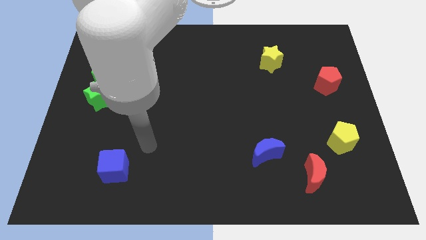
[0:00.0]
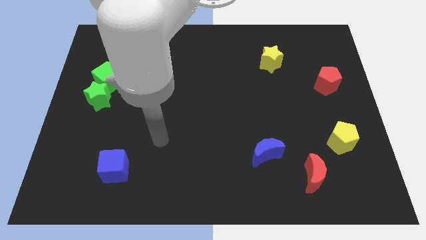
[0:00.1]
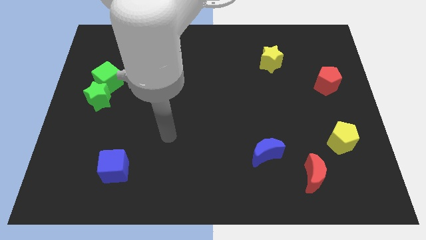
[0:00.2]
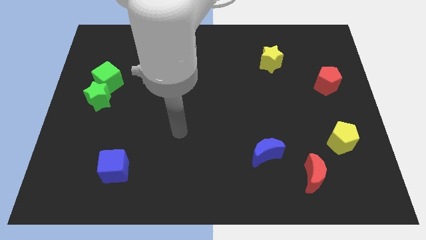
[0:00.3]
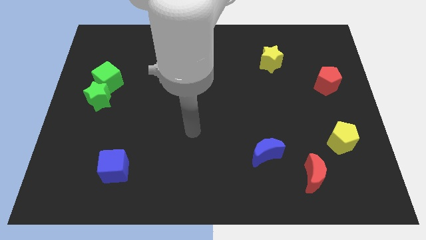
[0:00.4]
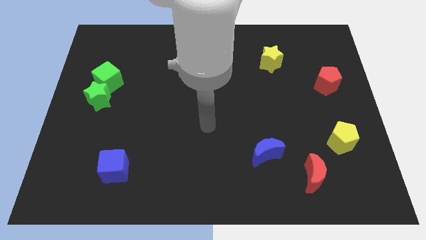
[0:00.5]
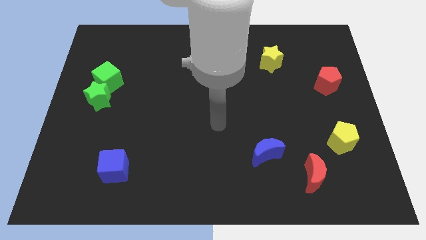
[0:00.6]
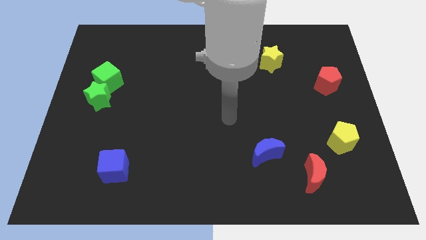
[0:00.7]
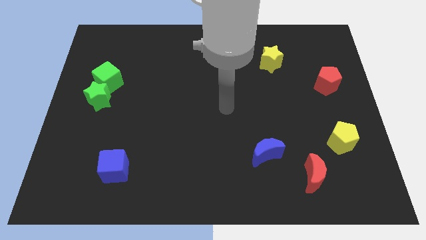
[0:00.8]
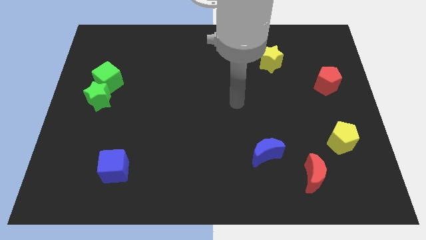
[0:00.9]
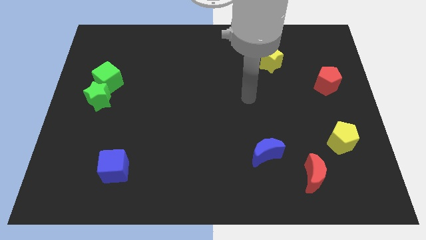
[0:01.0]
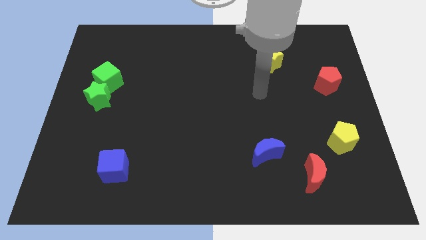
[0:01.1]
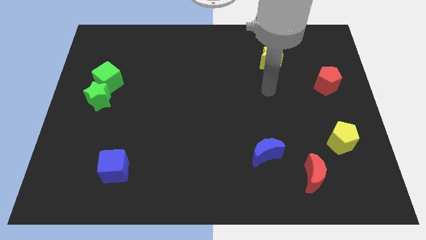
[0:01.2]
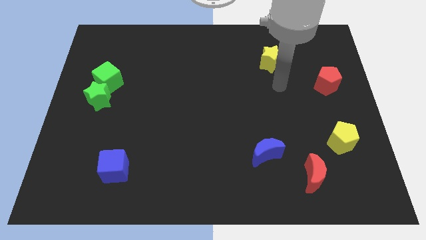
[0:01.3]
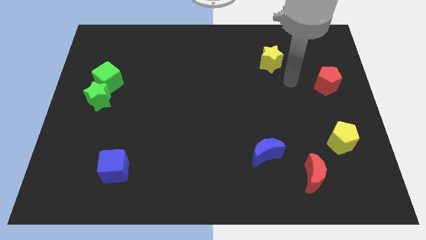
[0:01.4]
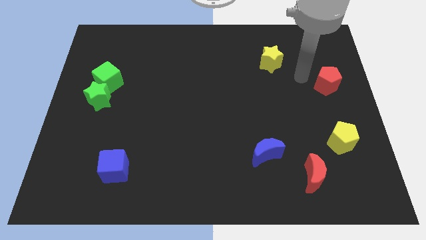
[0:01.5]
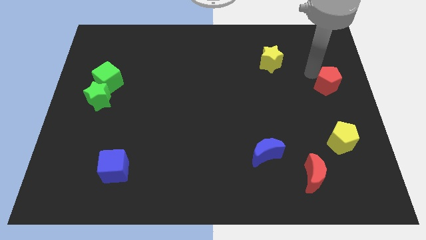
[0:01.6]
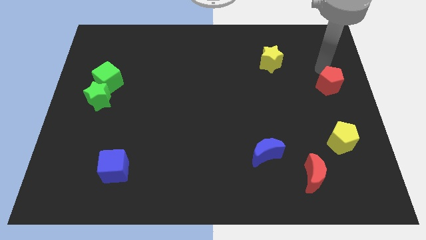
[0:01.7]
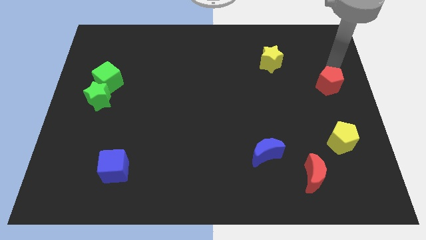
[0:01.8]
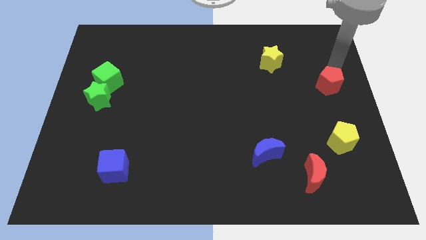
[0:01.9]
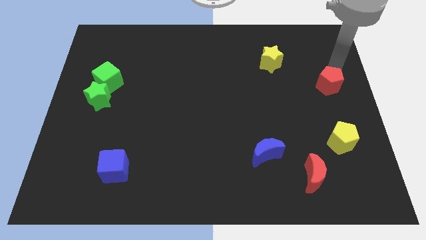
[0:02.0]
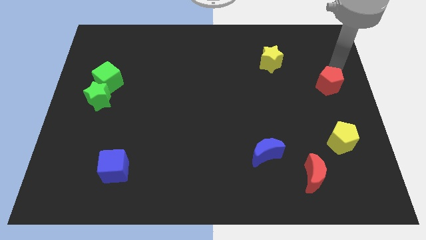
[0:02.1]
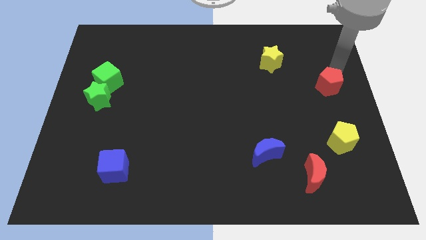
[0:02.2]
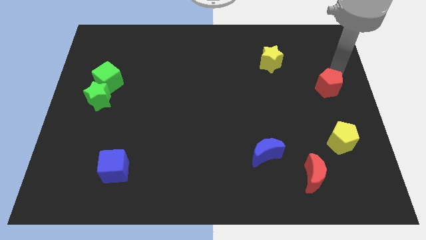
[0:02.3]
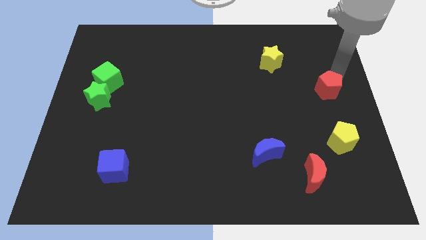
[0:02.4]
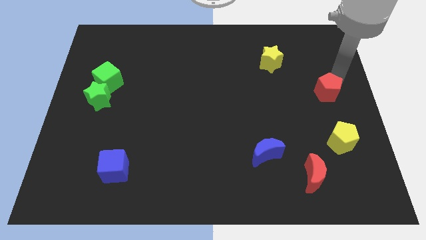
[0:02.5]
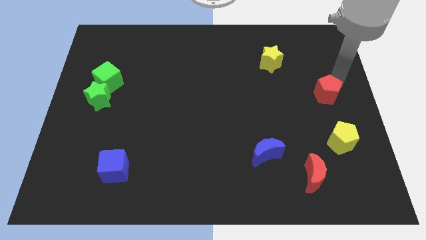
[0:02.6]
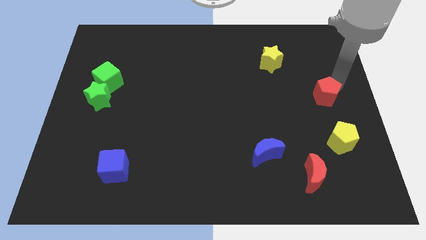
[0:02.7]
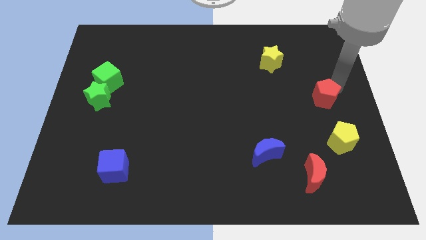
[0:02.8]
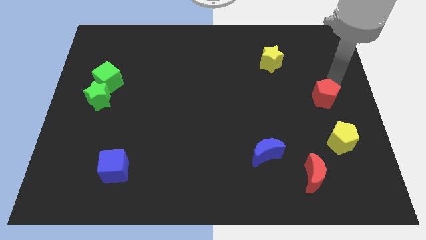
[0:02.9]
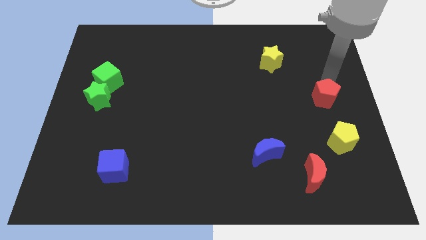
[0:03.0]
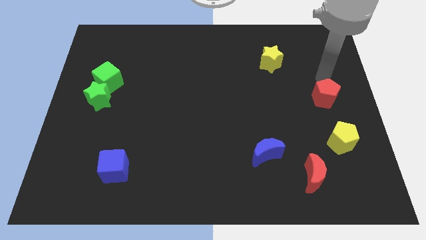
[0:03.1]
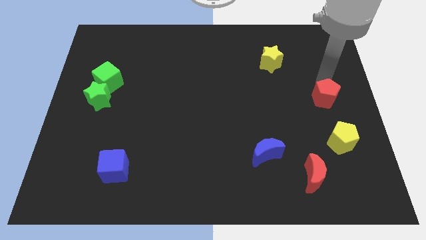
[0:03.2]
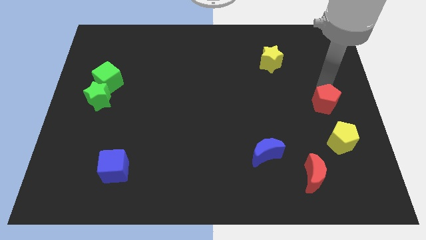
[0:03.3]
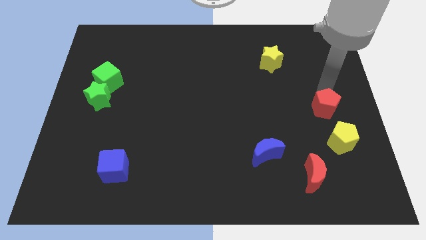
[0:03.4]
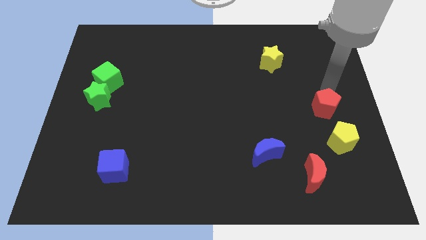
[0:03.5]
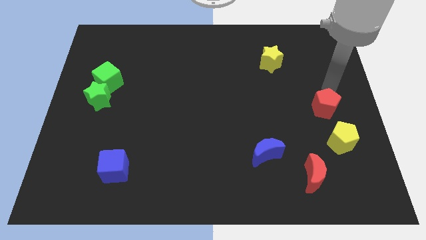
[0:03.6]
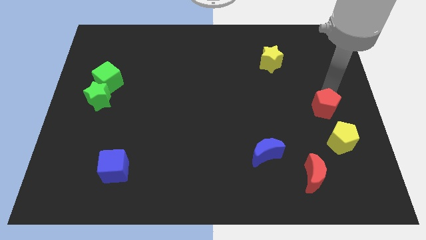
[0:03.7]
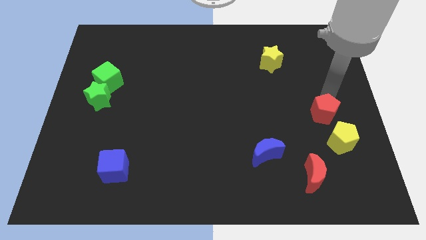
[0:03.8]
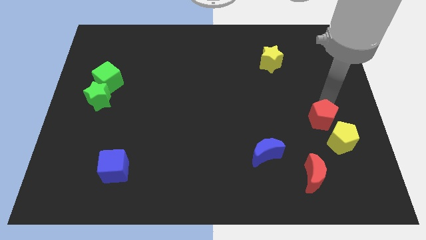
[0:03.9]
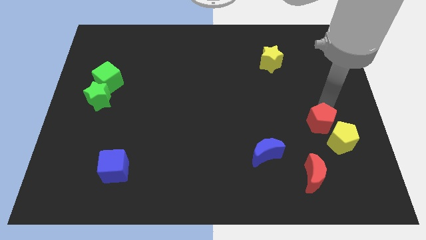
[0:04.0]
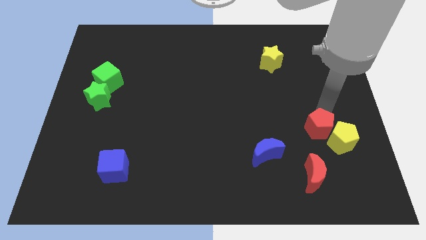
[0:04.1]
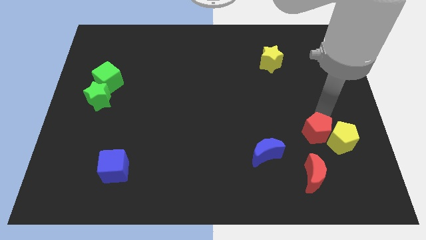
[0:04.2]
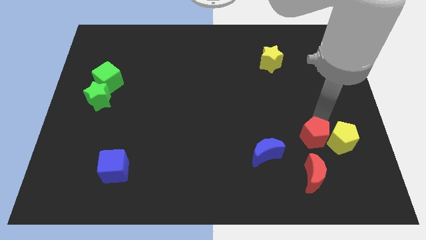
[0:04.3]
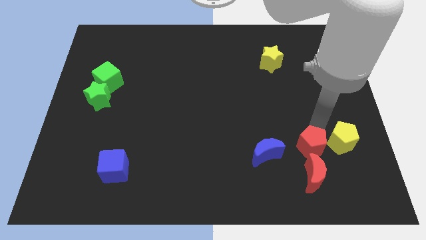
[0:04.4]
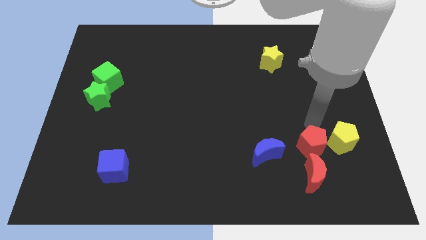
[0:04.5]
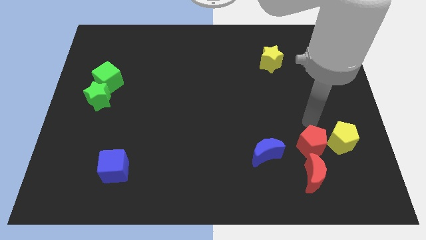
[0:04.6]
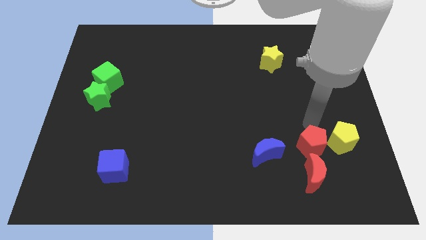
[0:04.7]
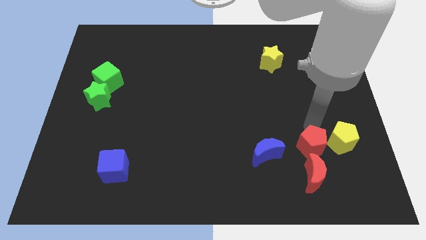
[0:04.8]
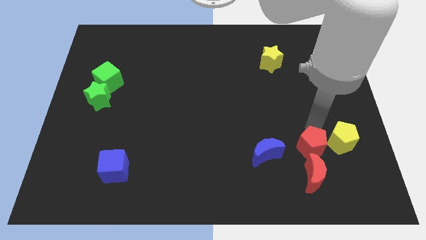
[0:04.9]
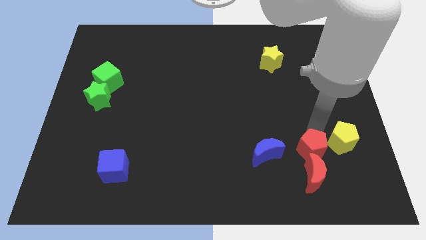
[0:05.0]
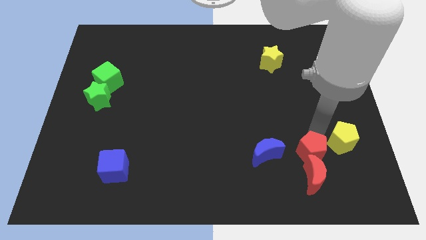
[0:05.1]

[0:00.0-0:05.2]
move the red pentagon next to the red moon

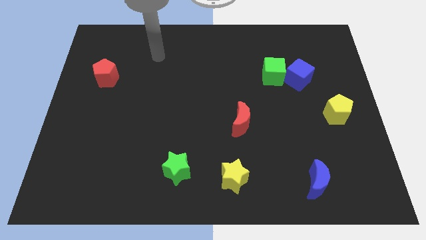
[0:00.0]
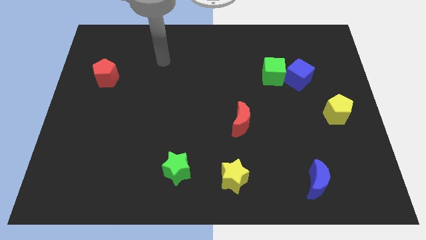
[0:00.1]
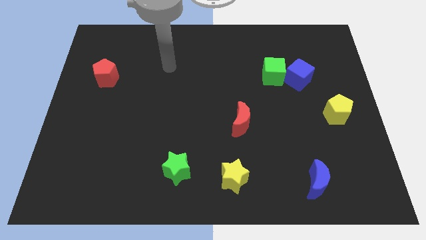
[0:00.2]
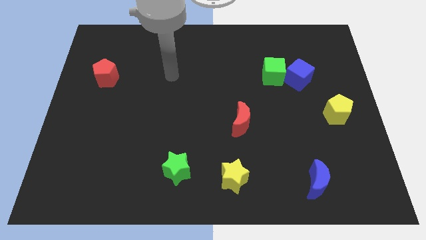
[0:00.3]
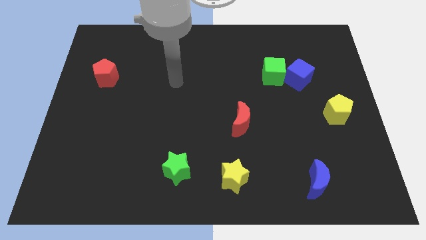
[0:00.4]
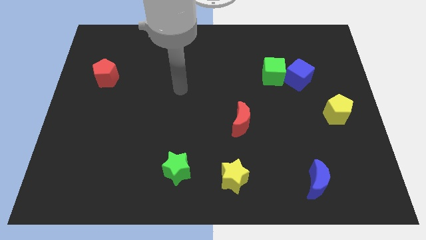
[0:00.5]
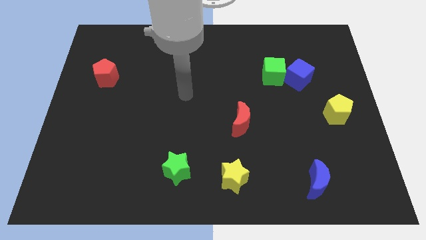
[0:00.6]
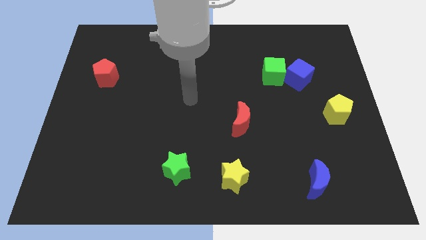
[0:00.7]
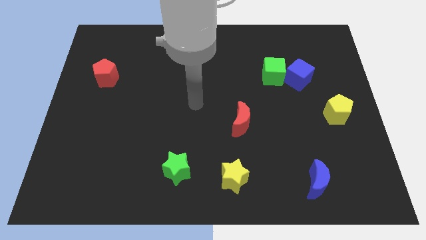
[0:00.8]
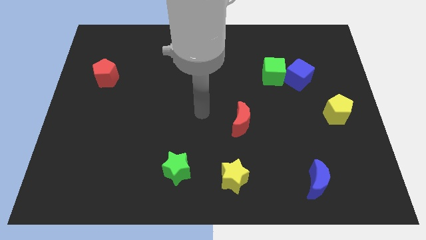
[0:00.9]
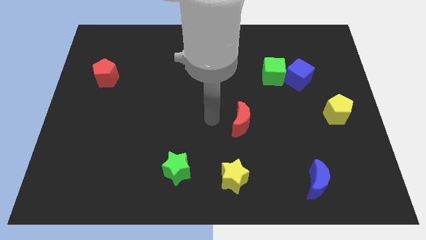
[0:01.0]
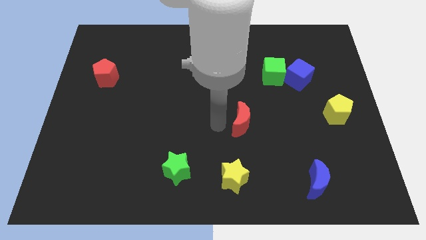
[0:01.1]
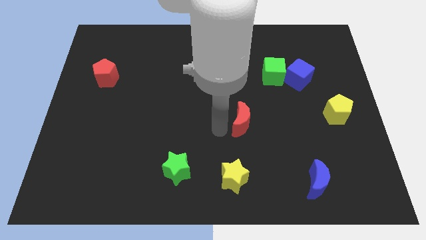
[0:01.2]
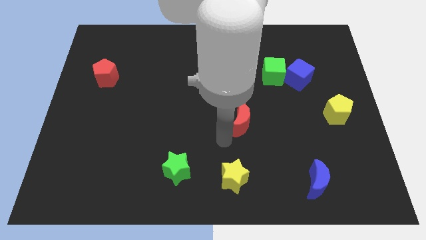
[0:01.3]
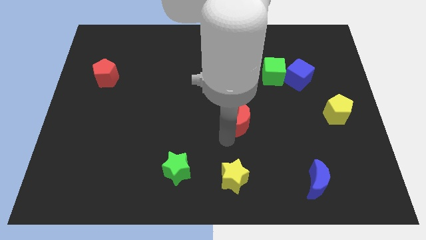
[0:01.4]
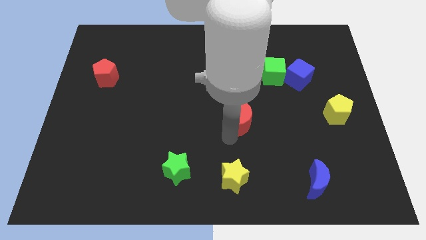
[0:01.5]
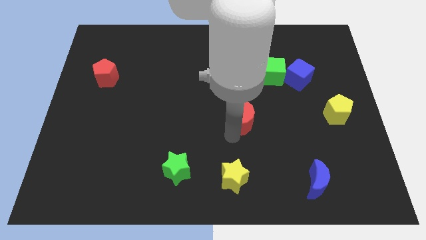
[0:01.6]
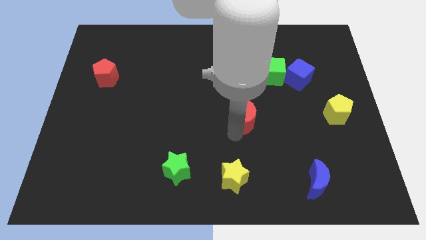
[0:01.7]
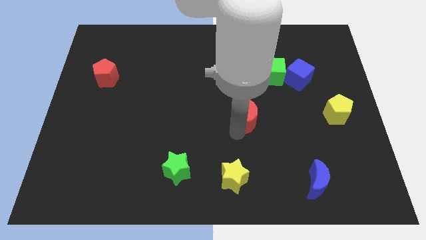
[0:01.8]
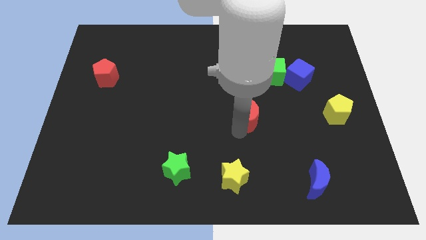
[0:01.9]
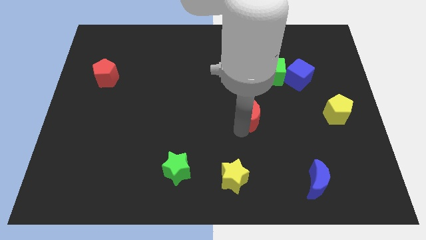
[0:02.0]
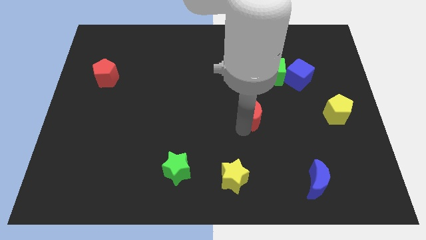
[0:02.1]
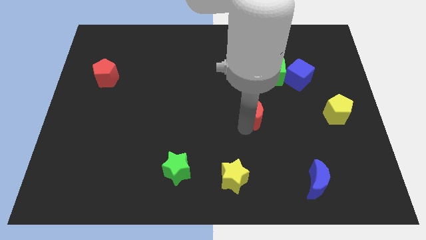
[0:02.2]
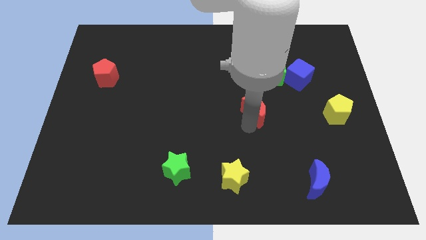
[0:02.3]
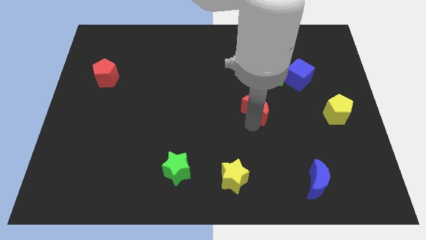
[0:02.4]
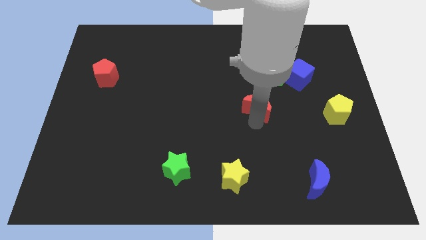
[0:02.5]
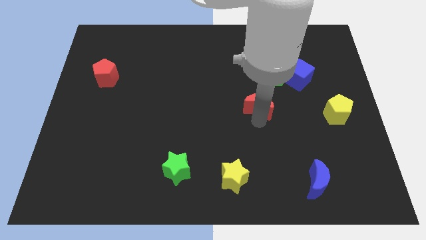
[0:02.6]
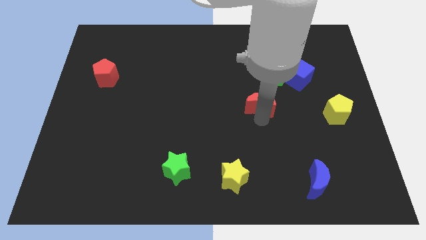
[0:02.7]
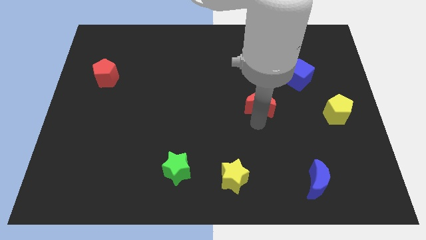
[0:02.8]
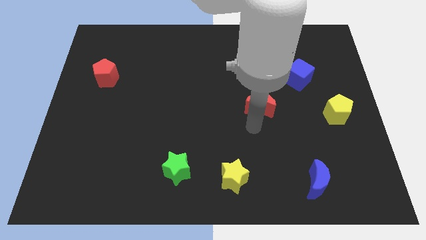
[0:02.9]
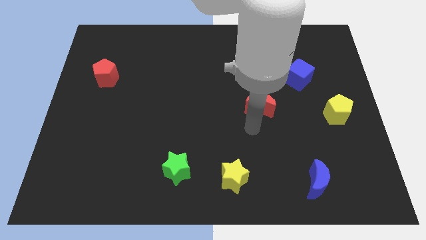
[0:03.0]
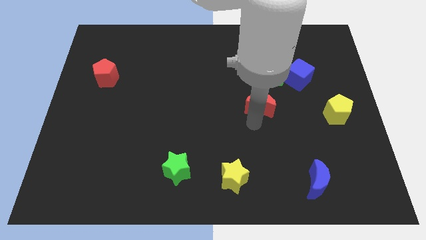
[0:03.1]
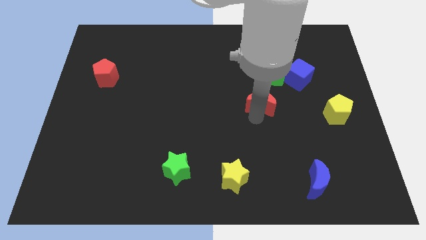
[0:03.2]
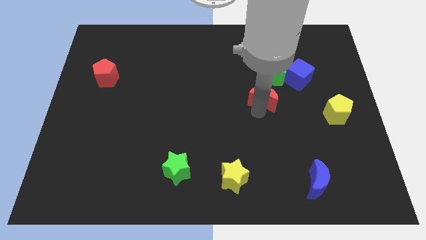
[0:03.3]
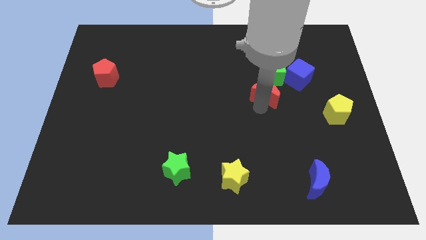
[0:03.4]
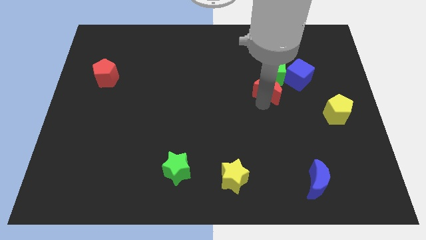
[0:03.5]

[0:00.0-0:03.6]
move the red moon to the green cube
